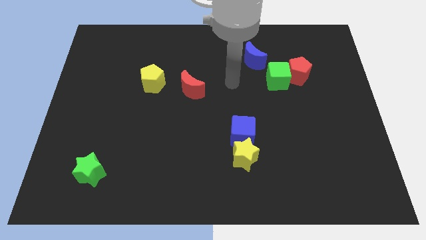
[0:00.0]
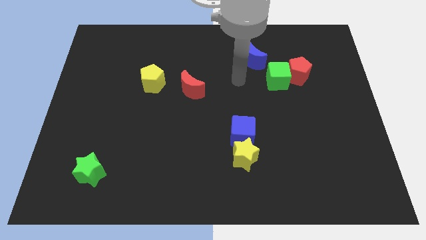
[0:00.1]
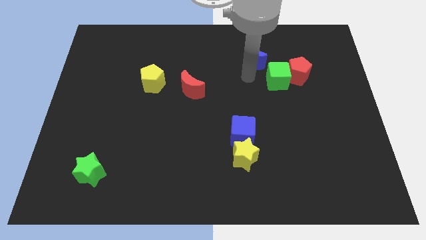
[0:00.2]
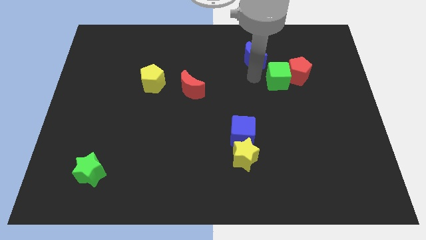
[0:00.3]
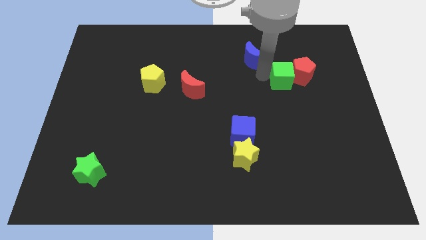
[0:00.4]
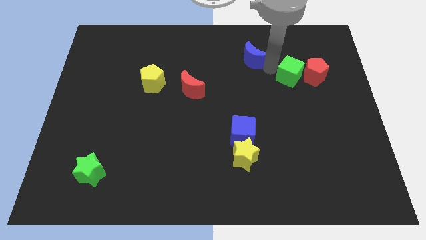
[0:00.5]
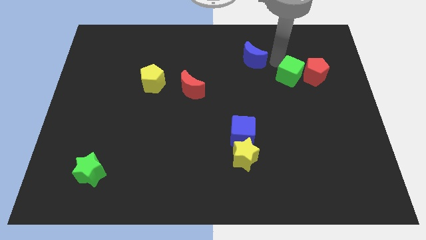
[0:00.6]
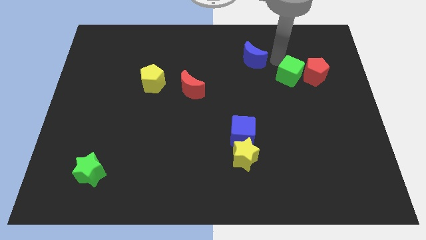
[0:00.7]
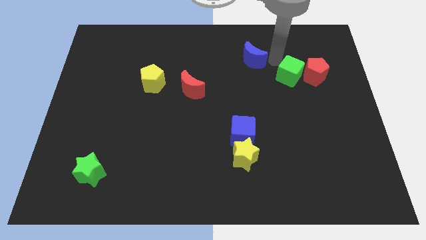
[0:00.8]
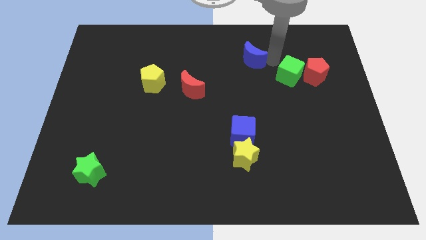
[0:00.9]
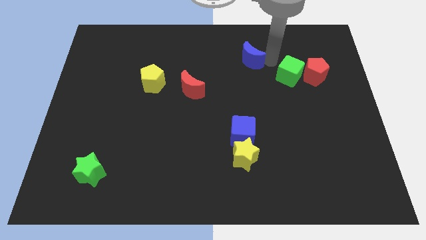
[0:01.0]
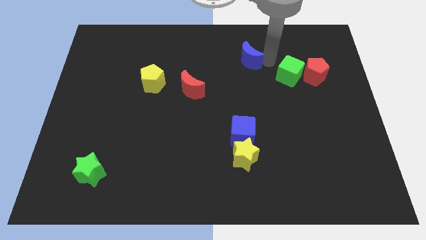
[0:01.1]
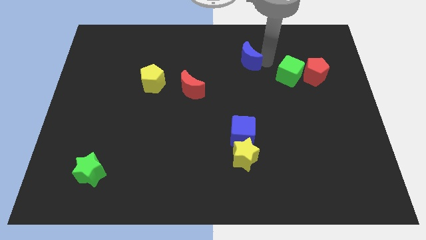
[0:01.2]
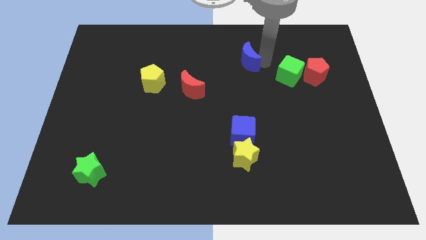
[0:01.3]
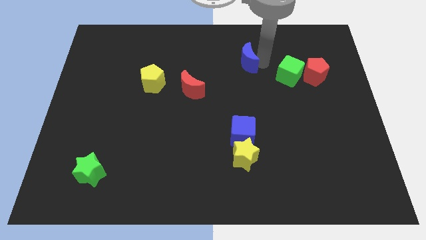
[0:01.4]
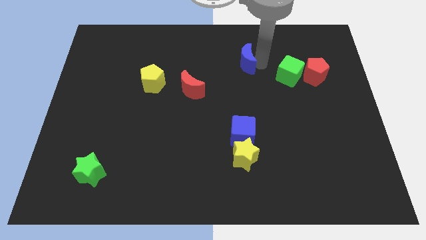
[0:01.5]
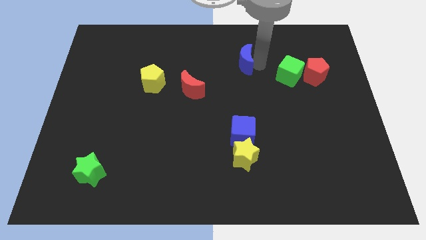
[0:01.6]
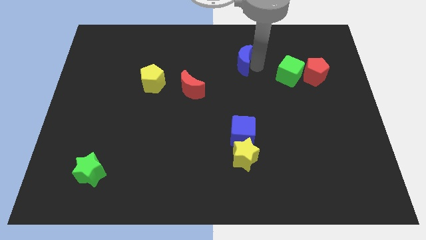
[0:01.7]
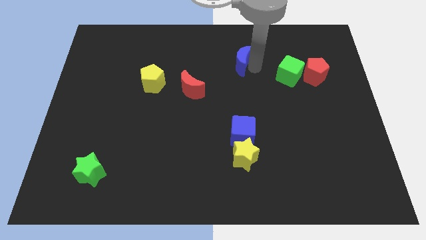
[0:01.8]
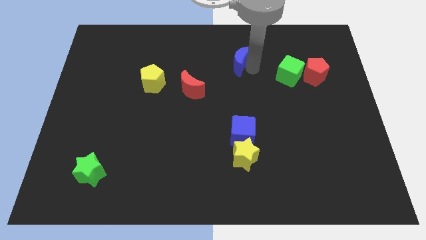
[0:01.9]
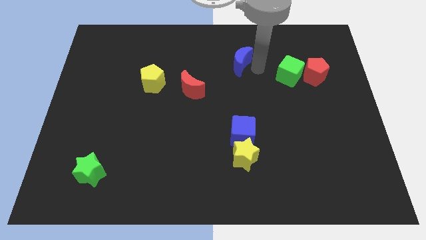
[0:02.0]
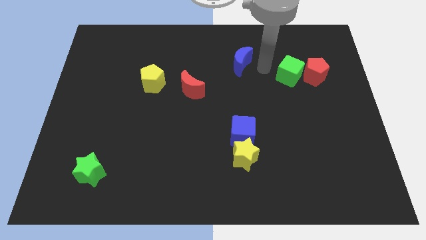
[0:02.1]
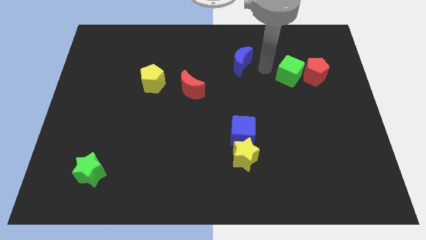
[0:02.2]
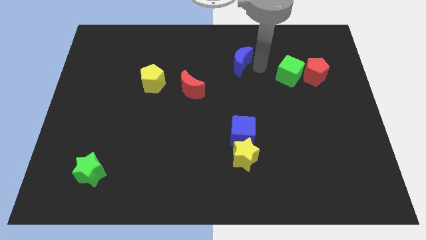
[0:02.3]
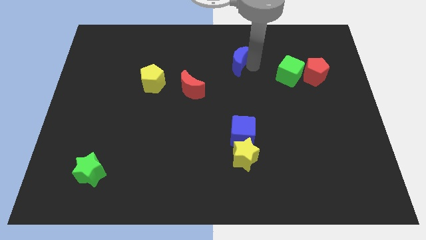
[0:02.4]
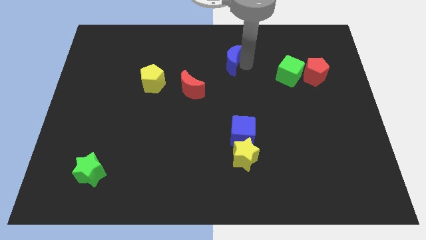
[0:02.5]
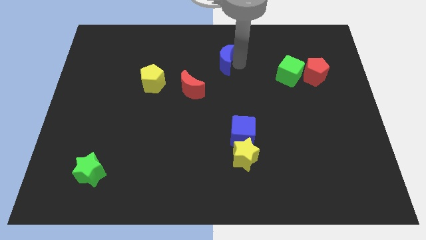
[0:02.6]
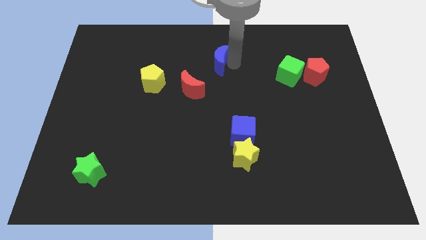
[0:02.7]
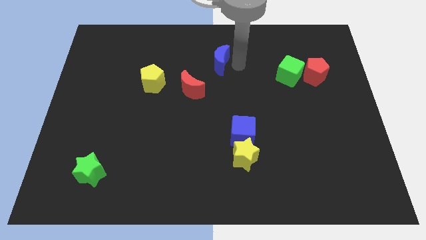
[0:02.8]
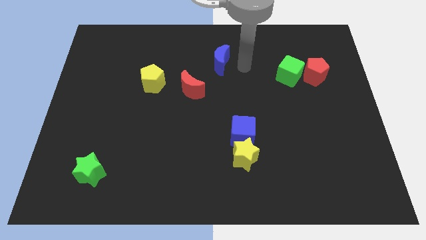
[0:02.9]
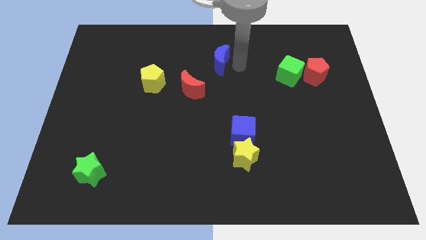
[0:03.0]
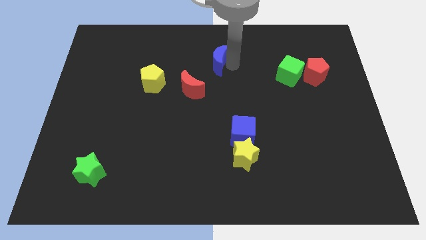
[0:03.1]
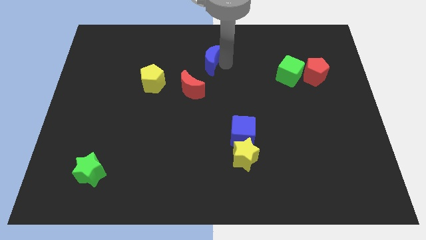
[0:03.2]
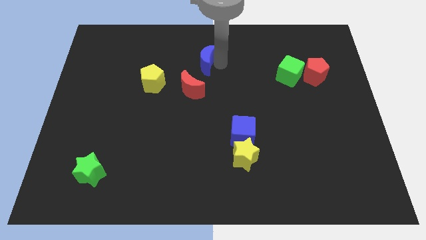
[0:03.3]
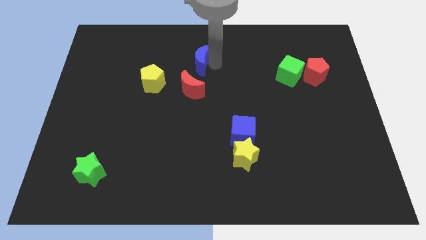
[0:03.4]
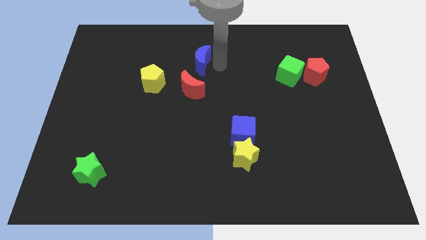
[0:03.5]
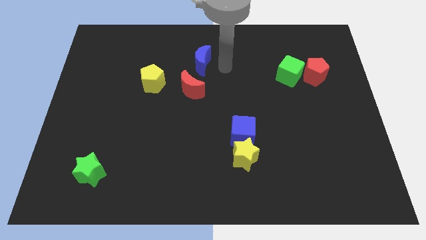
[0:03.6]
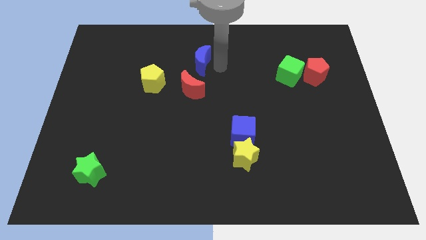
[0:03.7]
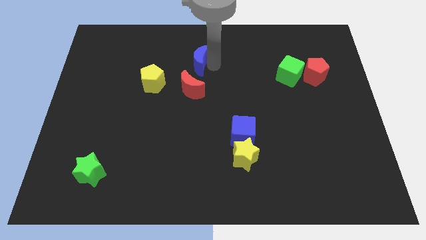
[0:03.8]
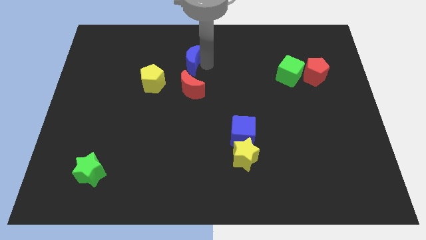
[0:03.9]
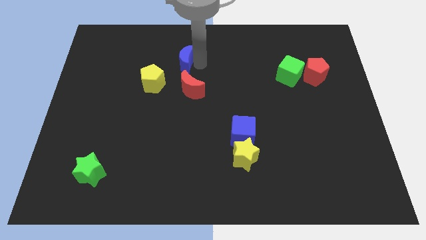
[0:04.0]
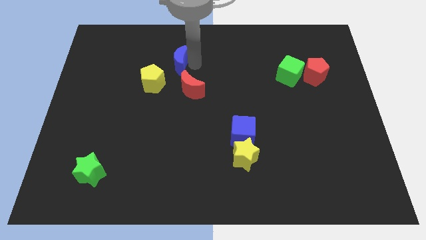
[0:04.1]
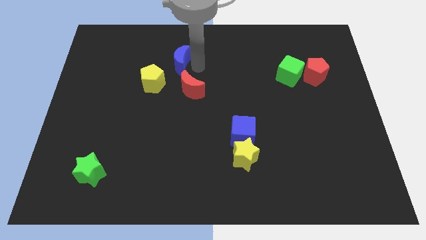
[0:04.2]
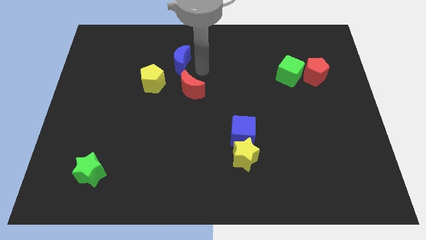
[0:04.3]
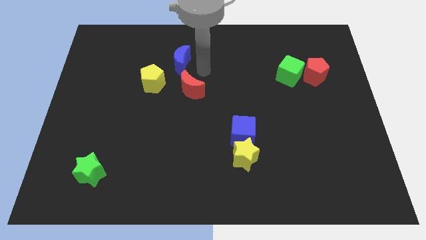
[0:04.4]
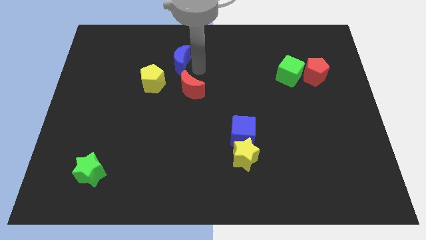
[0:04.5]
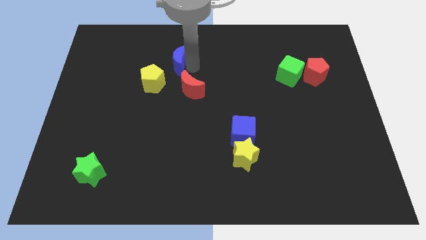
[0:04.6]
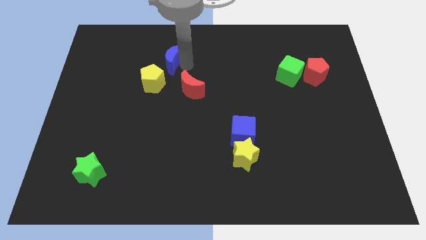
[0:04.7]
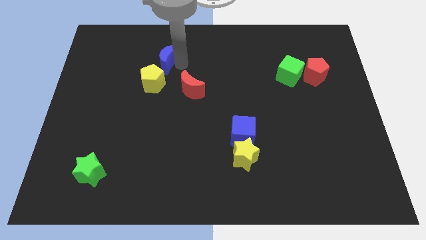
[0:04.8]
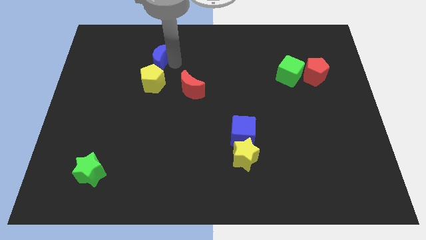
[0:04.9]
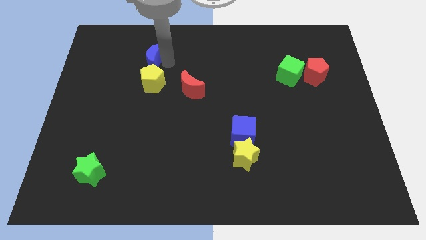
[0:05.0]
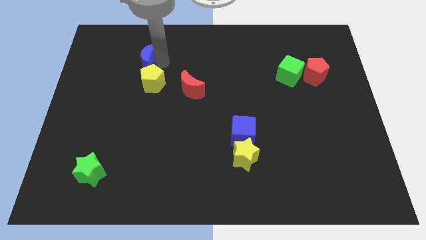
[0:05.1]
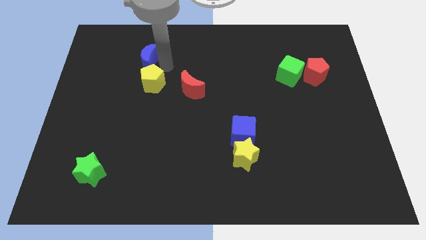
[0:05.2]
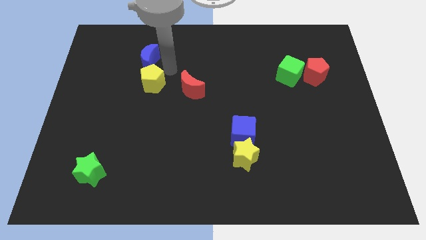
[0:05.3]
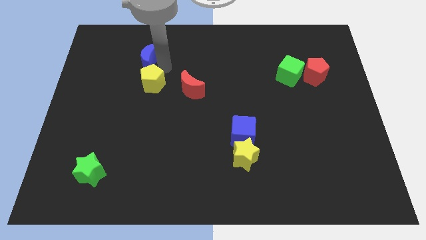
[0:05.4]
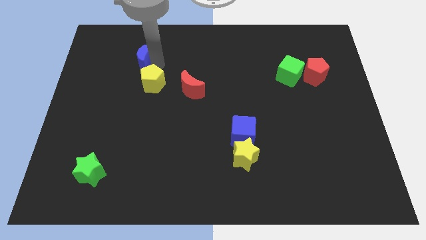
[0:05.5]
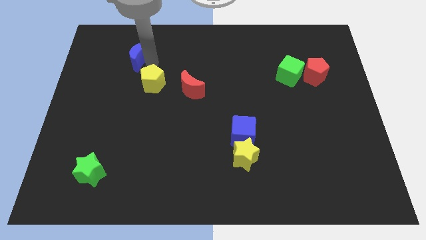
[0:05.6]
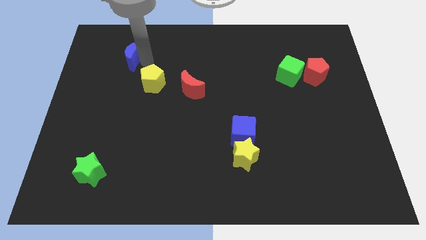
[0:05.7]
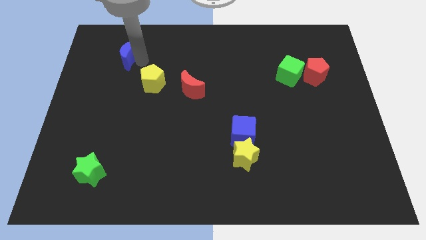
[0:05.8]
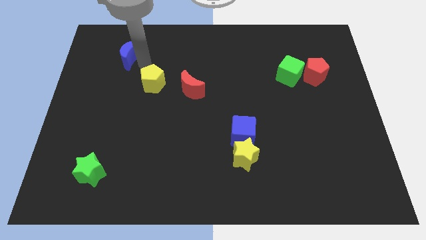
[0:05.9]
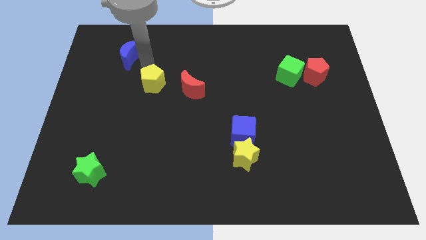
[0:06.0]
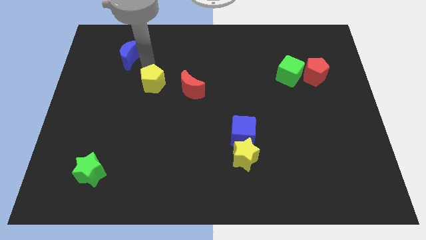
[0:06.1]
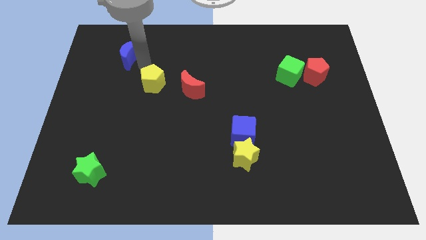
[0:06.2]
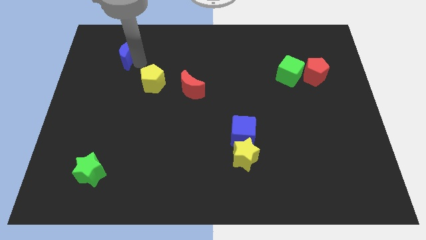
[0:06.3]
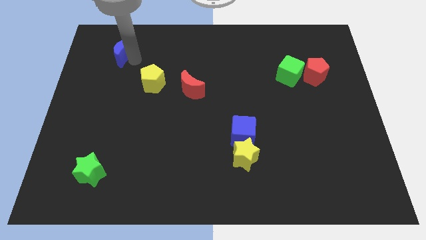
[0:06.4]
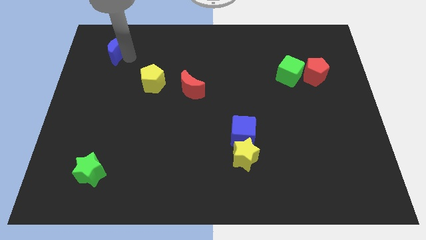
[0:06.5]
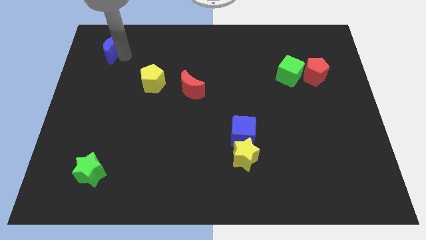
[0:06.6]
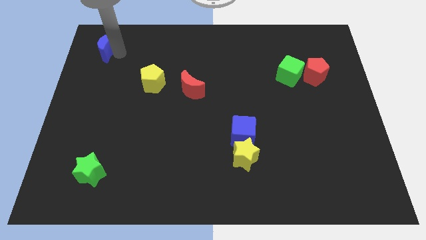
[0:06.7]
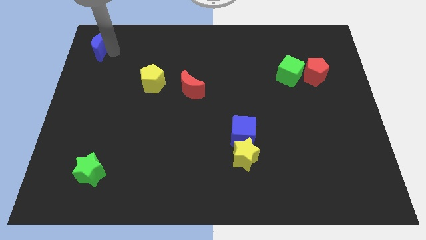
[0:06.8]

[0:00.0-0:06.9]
push the blue moon to the top left corner

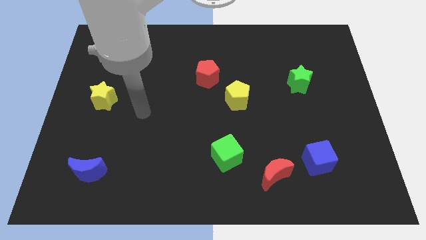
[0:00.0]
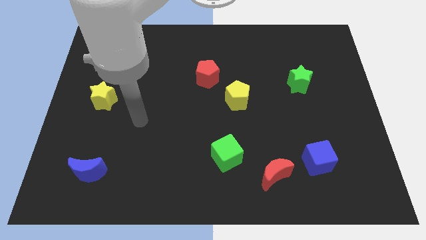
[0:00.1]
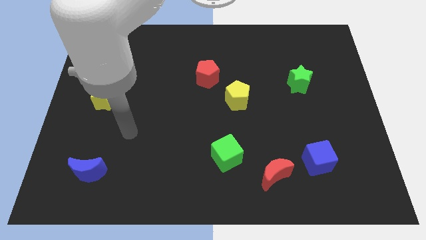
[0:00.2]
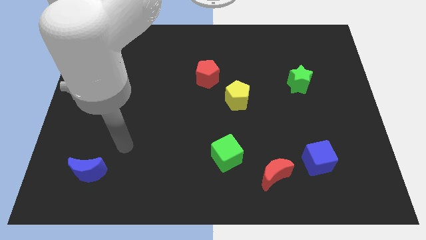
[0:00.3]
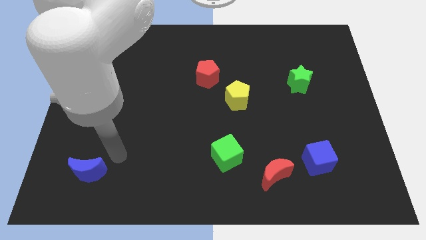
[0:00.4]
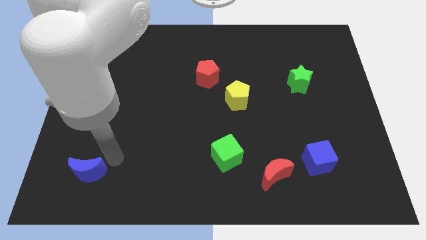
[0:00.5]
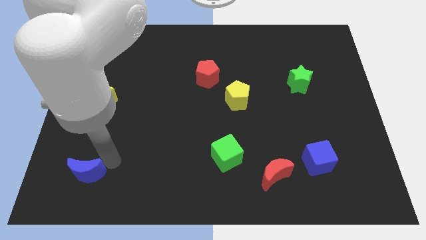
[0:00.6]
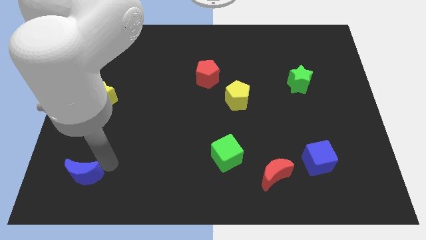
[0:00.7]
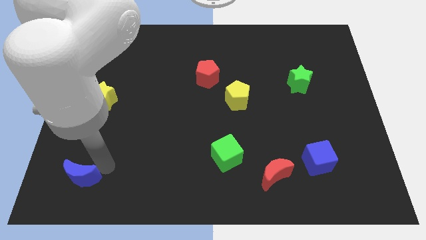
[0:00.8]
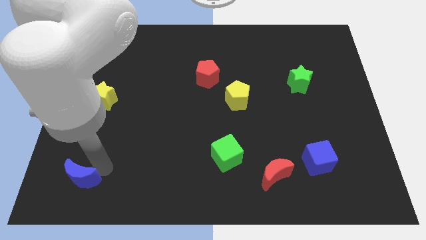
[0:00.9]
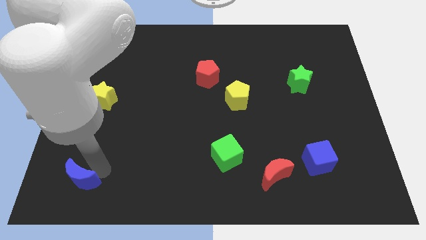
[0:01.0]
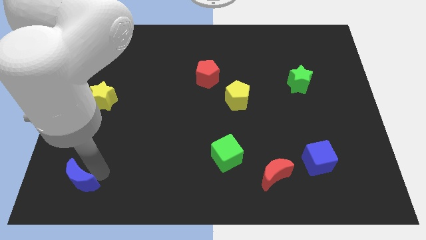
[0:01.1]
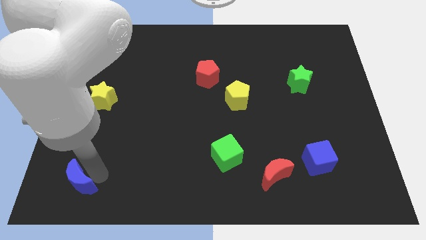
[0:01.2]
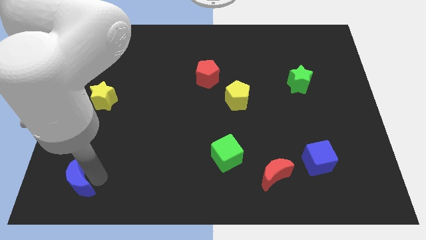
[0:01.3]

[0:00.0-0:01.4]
put the blue moon to the lower left corner
